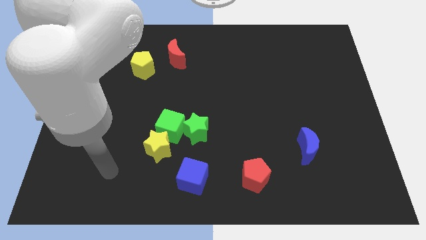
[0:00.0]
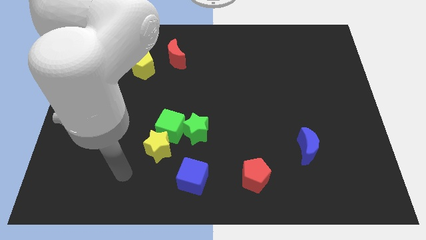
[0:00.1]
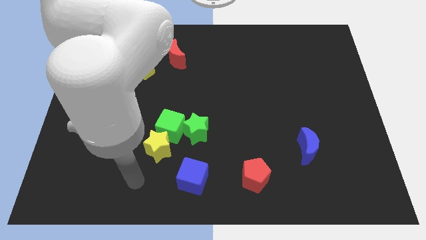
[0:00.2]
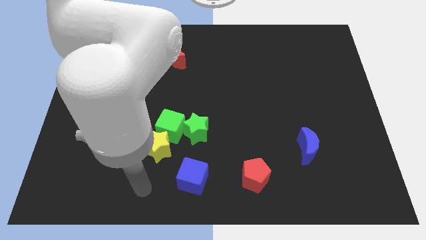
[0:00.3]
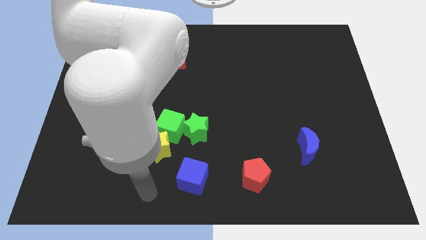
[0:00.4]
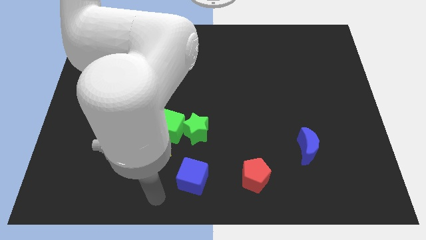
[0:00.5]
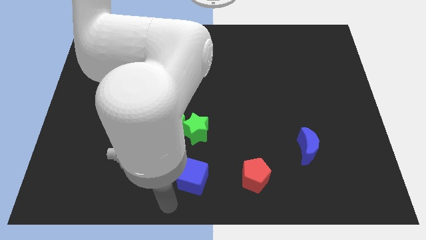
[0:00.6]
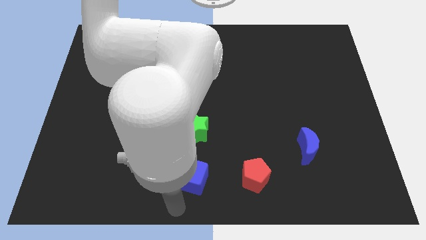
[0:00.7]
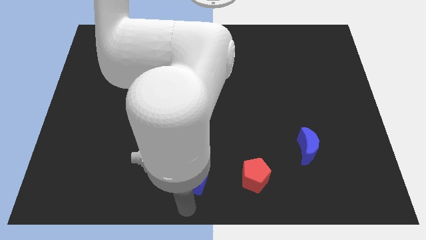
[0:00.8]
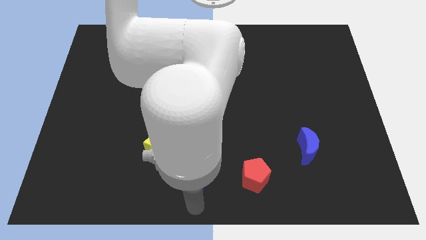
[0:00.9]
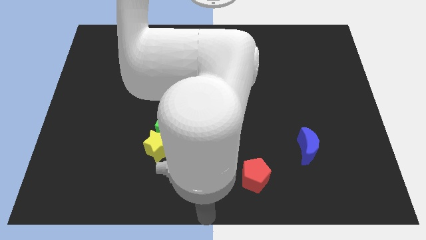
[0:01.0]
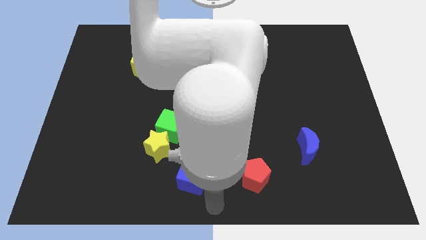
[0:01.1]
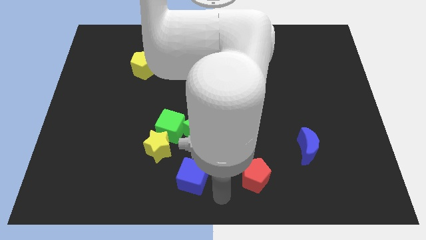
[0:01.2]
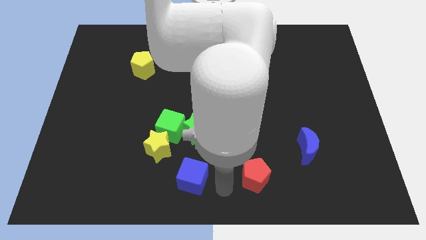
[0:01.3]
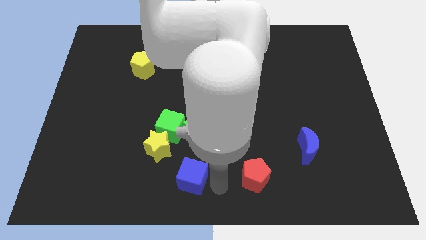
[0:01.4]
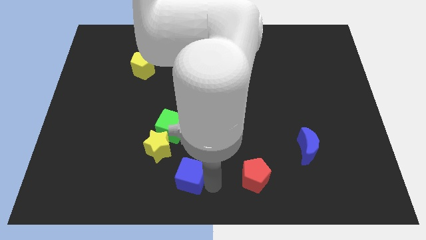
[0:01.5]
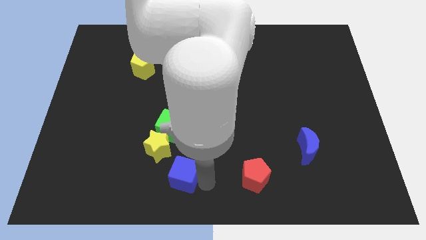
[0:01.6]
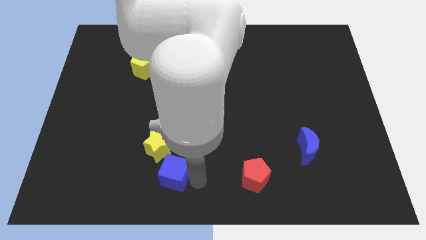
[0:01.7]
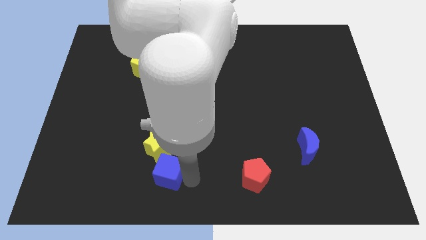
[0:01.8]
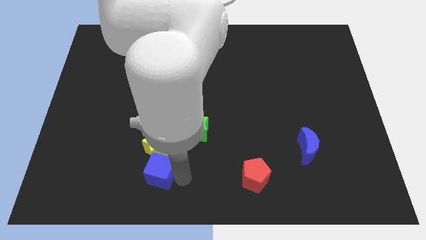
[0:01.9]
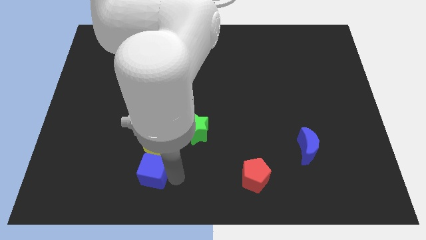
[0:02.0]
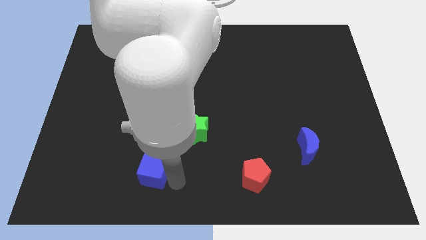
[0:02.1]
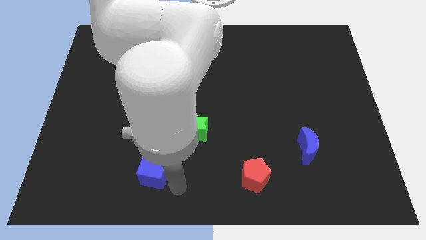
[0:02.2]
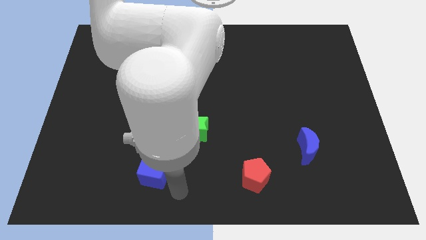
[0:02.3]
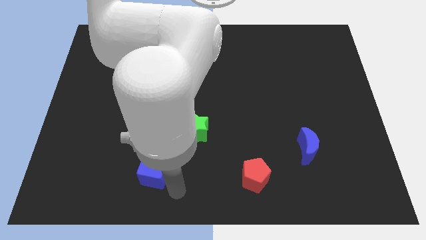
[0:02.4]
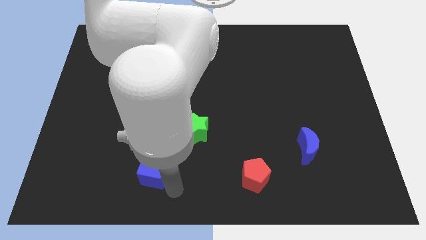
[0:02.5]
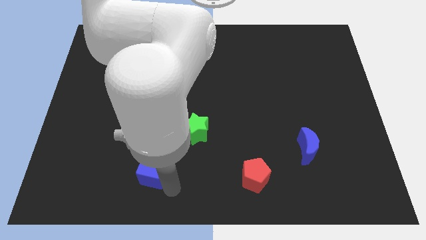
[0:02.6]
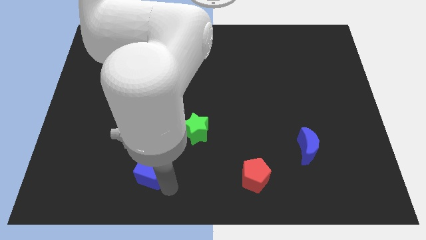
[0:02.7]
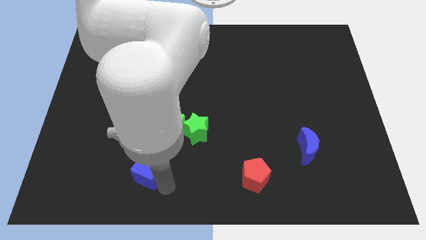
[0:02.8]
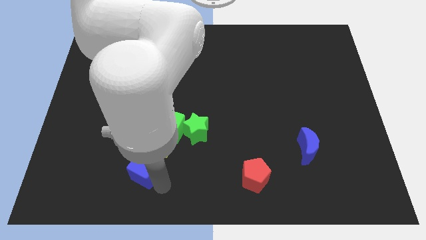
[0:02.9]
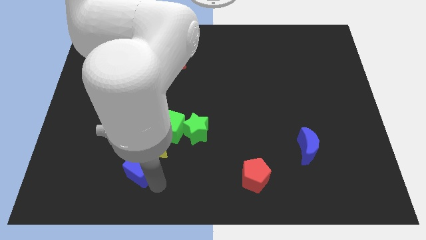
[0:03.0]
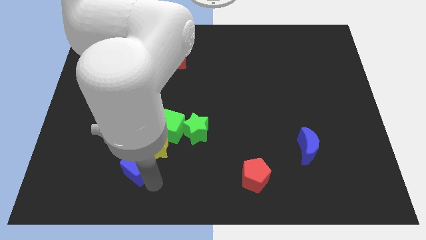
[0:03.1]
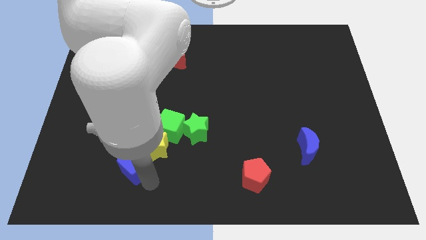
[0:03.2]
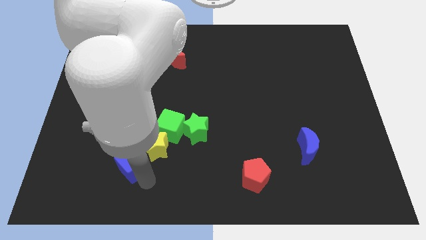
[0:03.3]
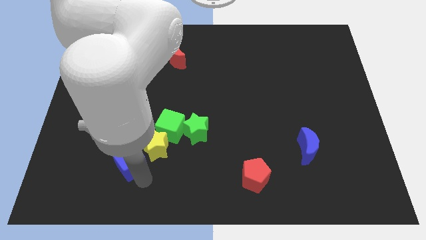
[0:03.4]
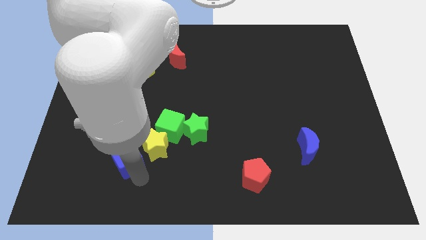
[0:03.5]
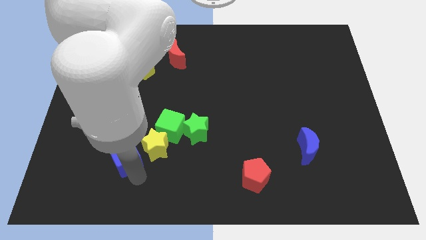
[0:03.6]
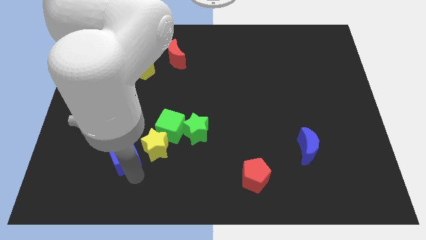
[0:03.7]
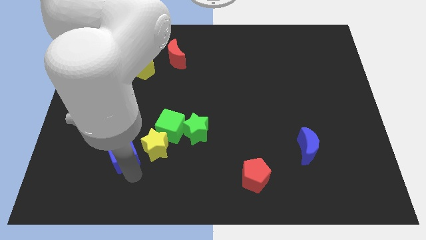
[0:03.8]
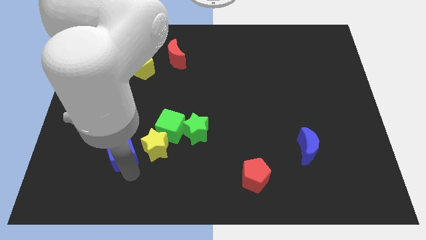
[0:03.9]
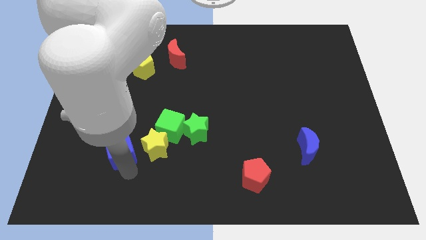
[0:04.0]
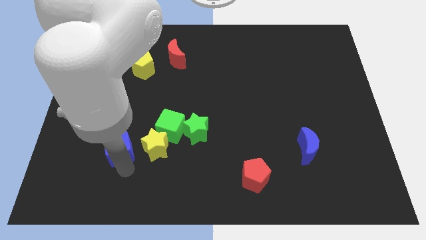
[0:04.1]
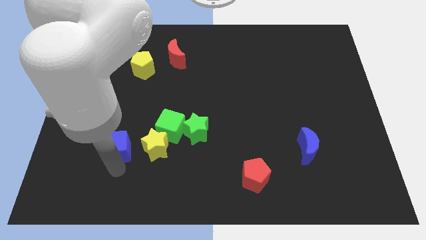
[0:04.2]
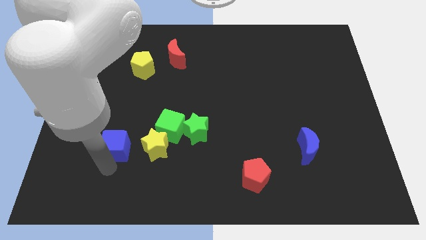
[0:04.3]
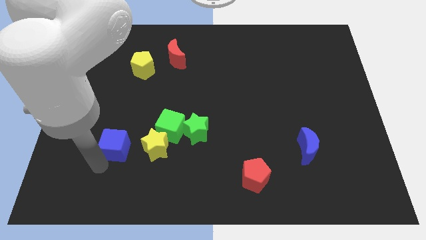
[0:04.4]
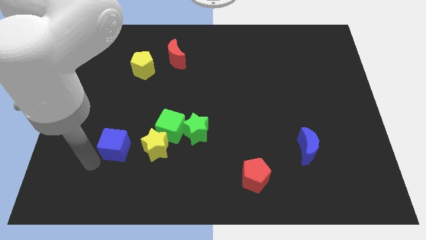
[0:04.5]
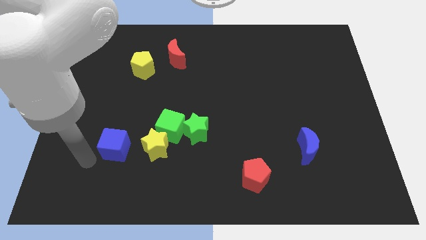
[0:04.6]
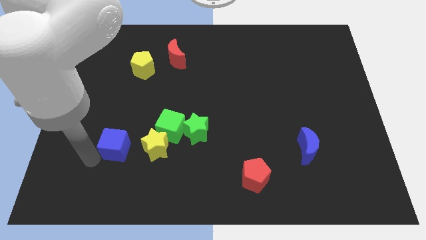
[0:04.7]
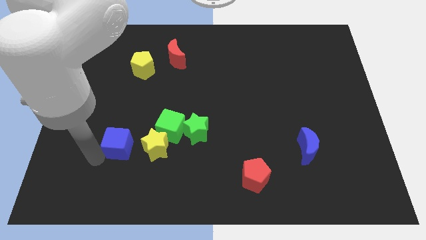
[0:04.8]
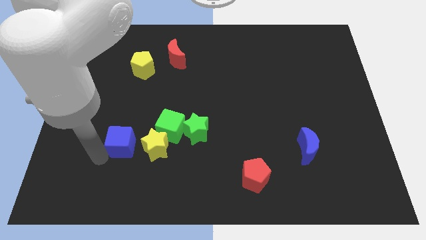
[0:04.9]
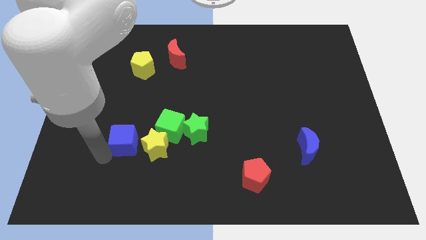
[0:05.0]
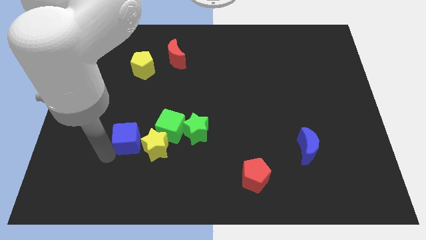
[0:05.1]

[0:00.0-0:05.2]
slide the blue cube just left of the green star

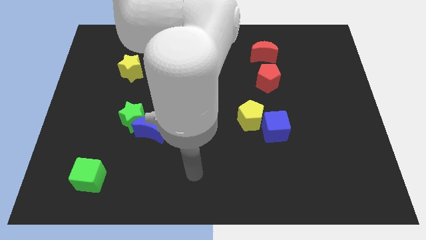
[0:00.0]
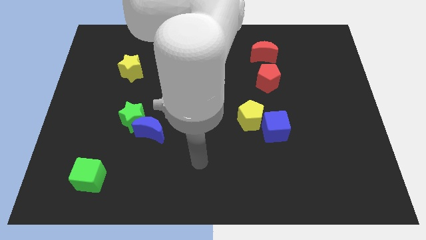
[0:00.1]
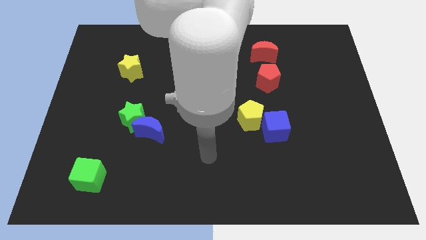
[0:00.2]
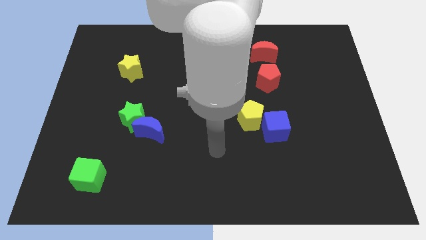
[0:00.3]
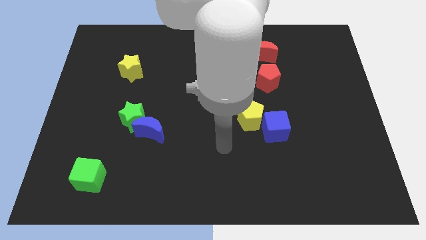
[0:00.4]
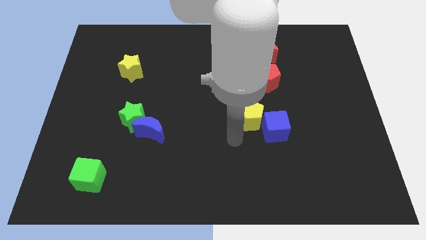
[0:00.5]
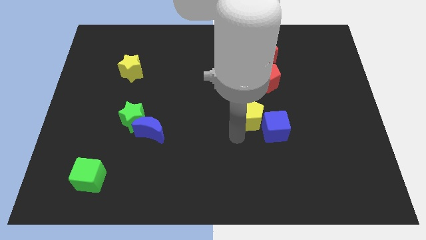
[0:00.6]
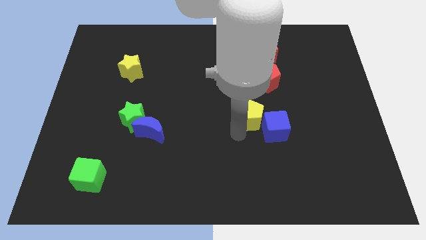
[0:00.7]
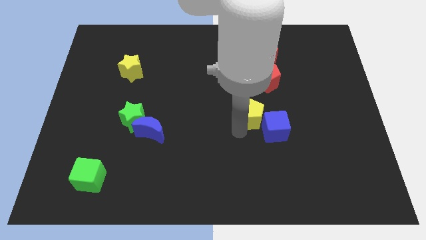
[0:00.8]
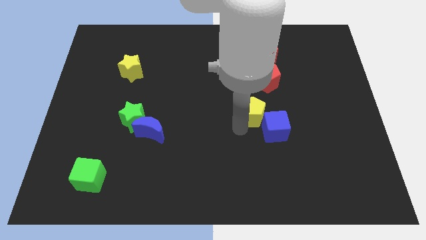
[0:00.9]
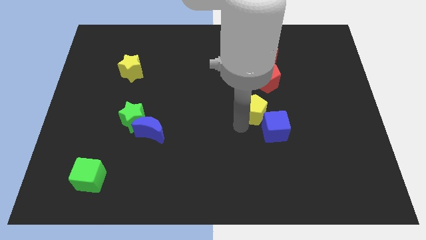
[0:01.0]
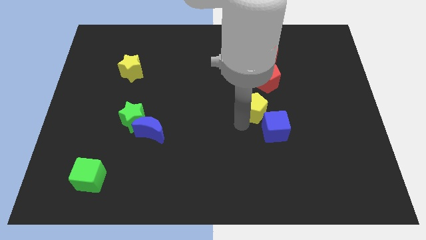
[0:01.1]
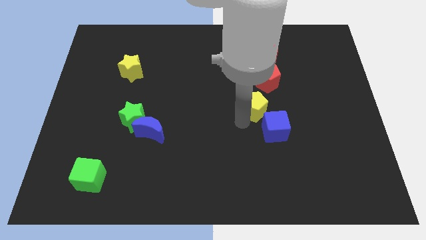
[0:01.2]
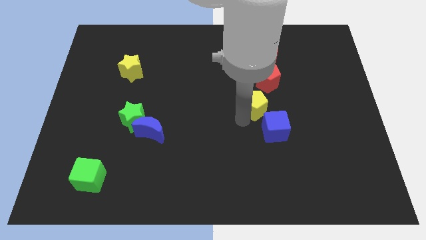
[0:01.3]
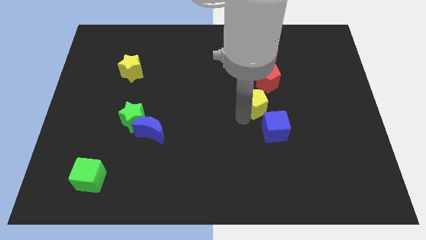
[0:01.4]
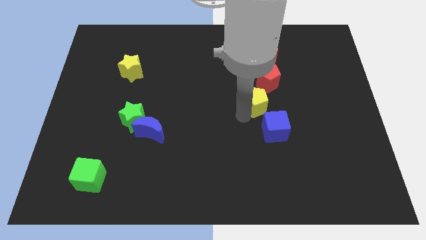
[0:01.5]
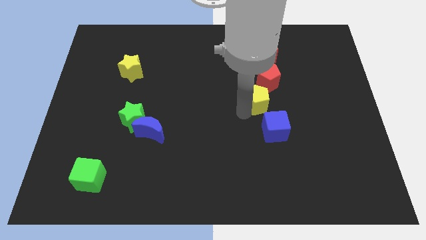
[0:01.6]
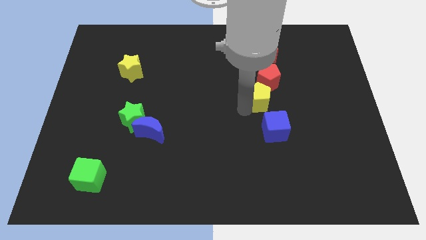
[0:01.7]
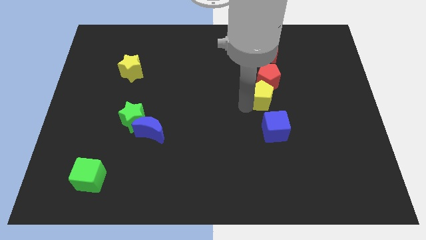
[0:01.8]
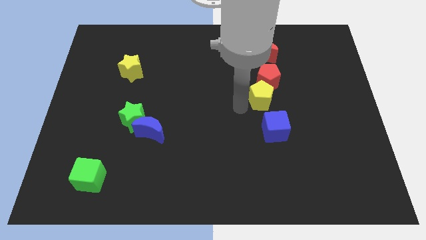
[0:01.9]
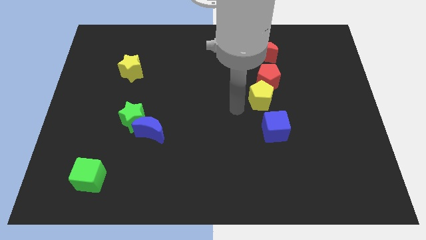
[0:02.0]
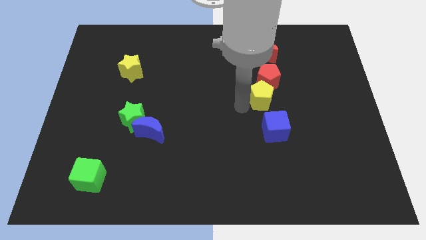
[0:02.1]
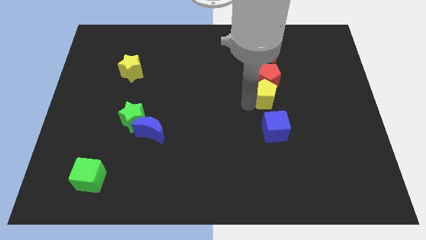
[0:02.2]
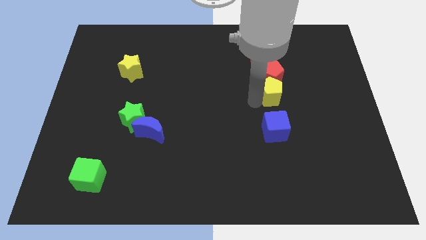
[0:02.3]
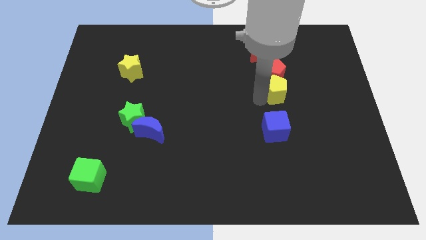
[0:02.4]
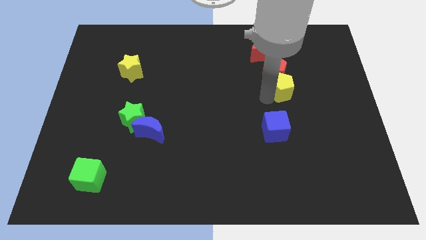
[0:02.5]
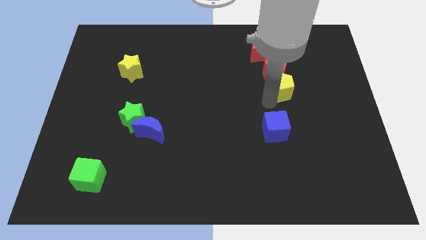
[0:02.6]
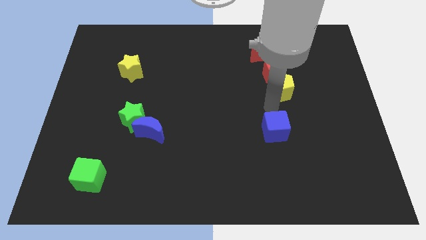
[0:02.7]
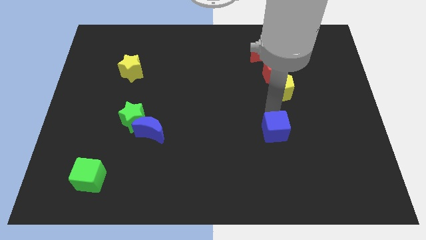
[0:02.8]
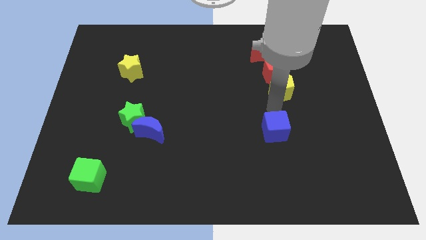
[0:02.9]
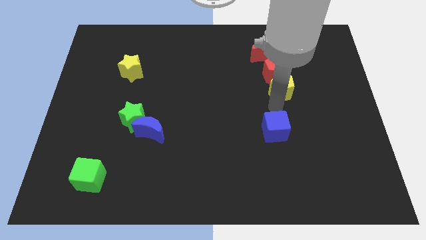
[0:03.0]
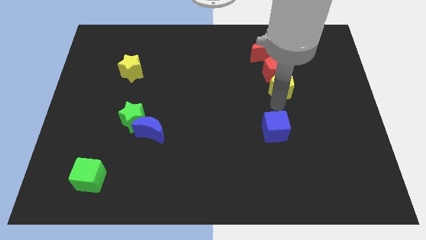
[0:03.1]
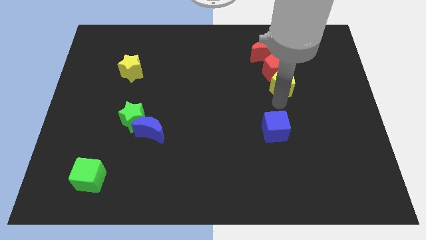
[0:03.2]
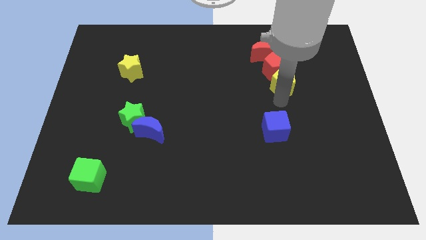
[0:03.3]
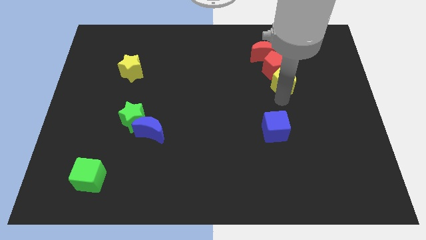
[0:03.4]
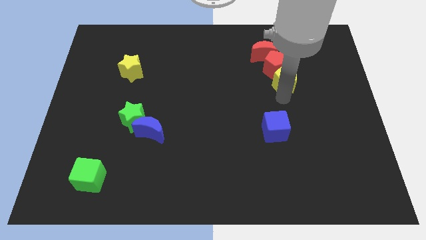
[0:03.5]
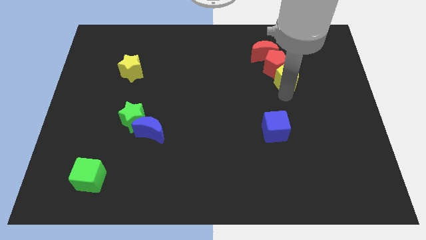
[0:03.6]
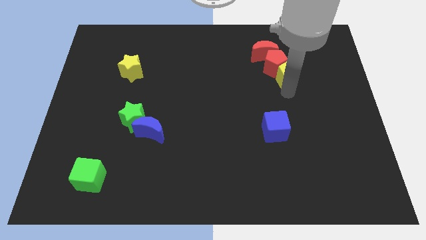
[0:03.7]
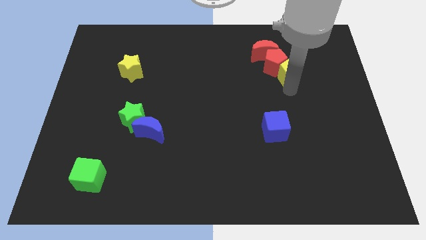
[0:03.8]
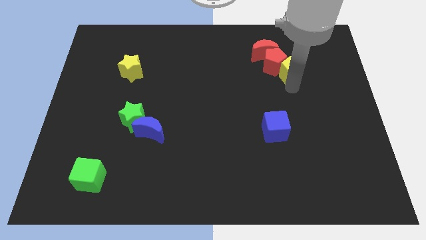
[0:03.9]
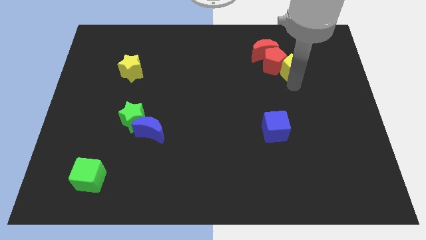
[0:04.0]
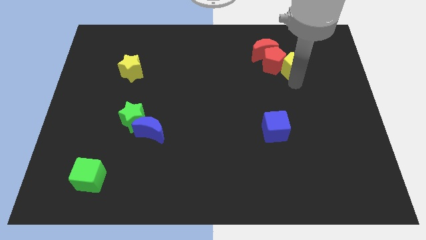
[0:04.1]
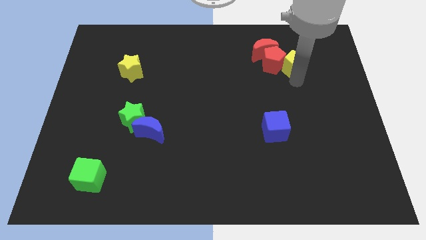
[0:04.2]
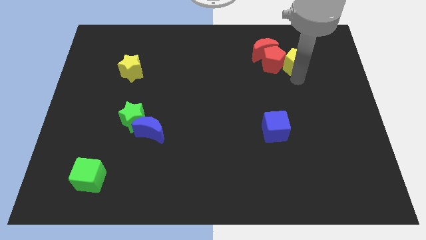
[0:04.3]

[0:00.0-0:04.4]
push the yellow pentagon to the right of the red moon
